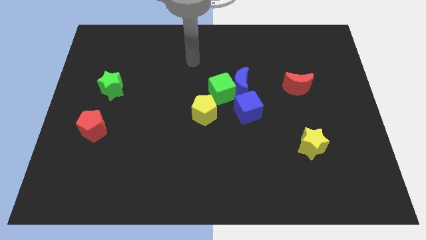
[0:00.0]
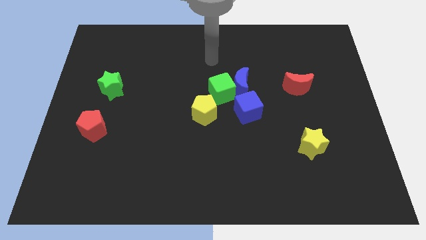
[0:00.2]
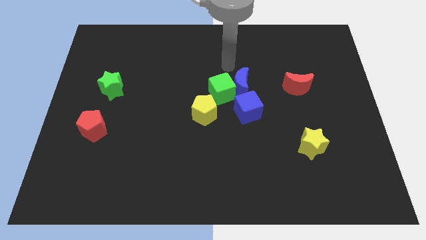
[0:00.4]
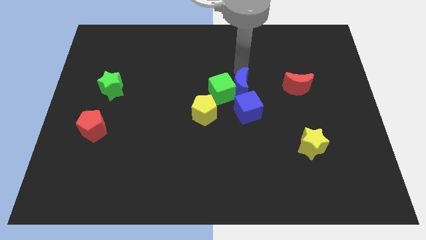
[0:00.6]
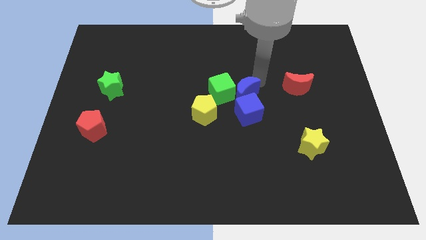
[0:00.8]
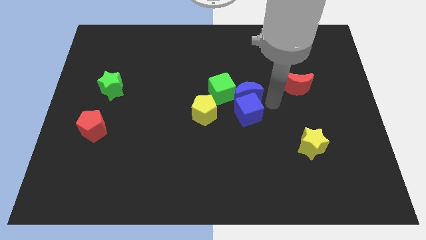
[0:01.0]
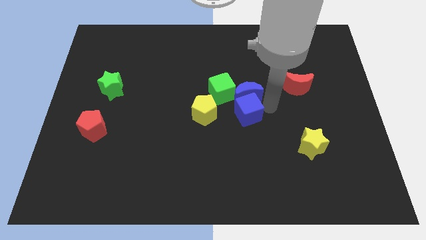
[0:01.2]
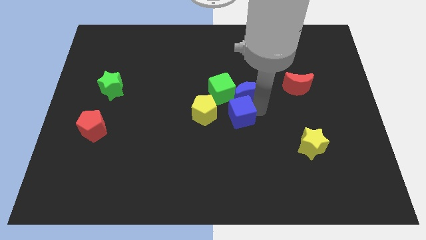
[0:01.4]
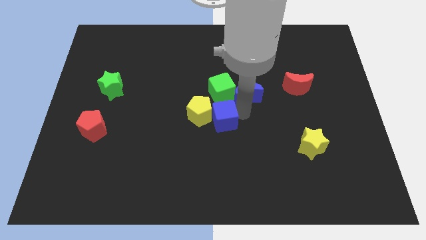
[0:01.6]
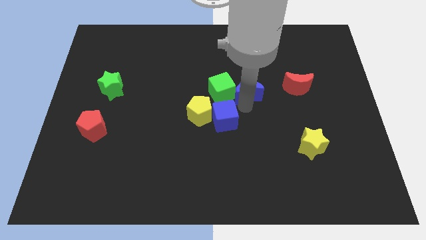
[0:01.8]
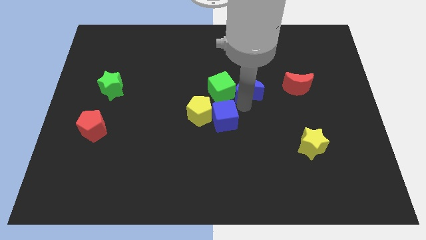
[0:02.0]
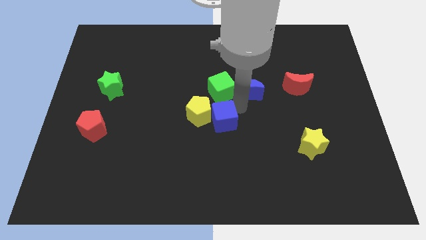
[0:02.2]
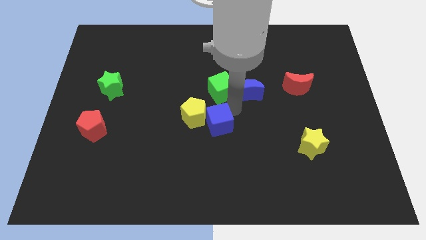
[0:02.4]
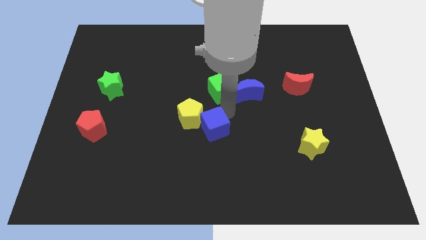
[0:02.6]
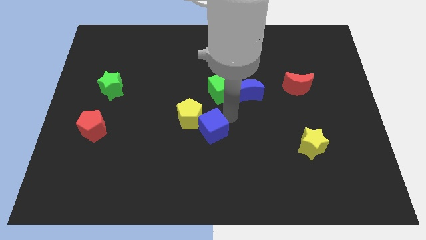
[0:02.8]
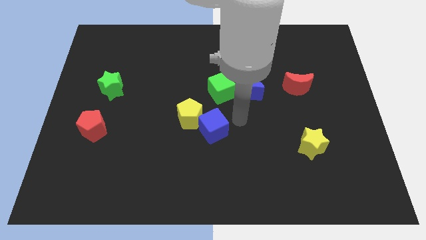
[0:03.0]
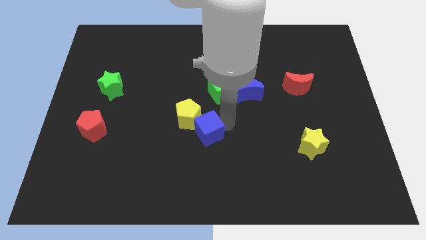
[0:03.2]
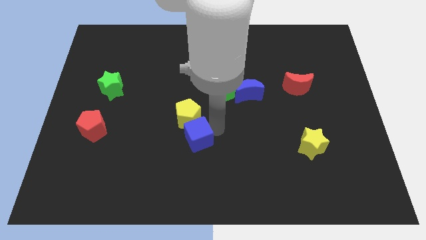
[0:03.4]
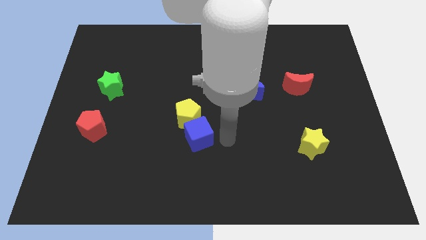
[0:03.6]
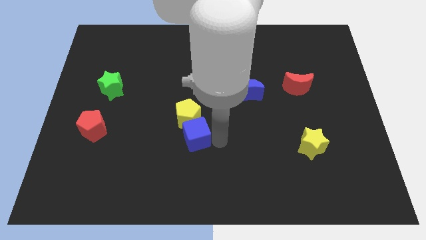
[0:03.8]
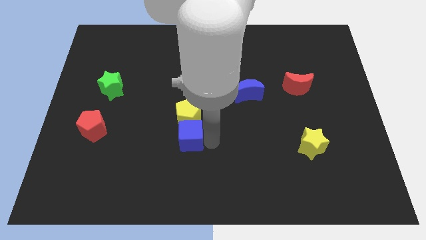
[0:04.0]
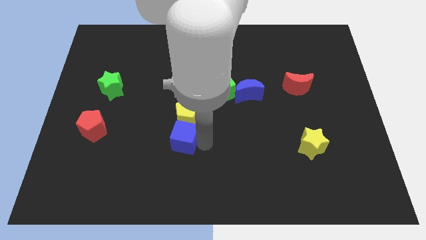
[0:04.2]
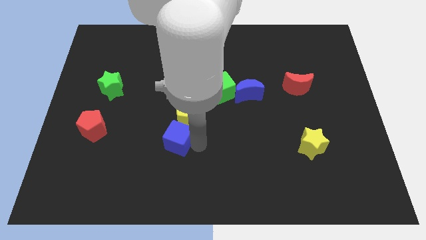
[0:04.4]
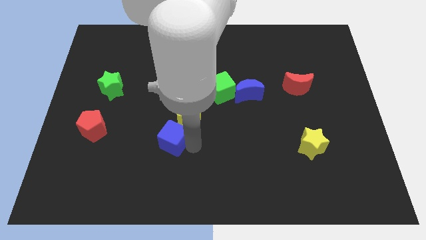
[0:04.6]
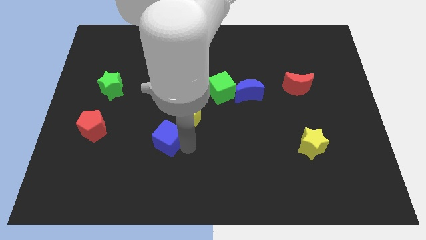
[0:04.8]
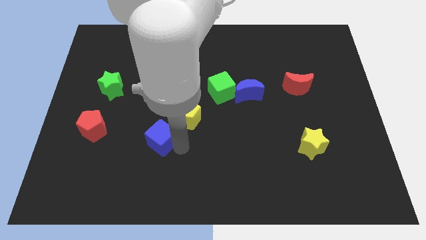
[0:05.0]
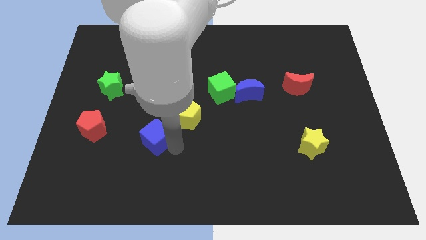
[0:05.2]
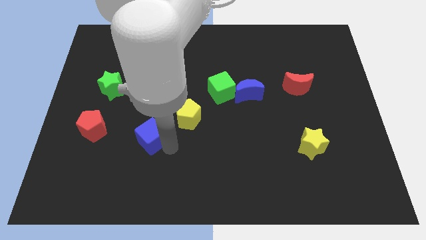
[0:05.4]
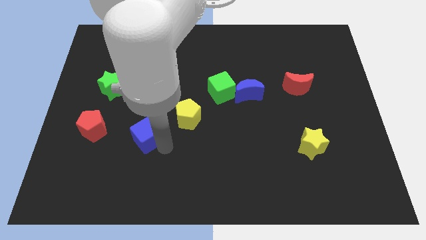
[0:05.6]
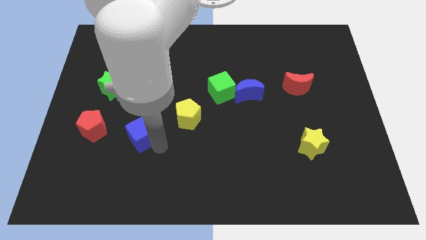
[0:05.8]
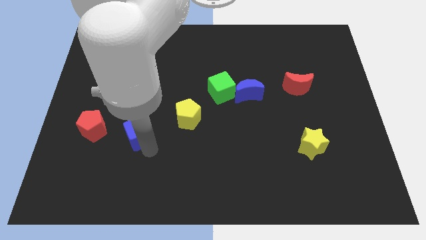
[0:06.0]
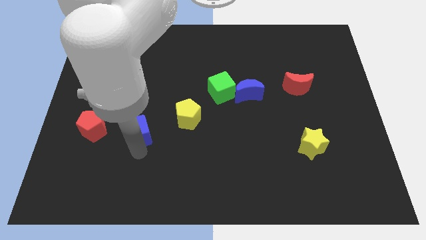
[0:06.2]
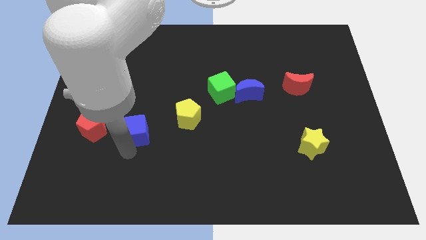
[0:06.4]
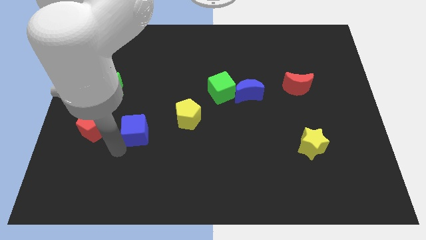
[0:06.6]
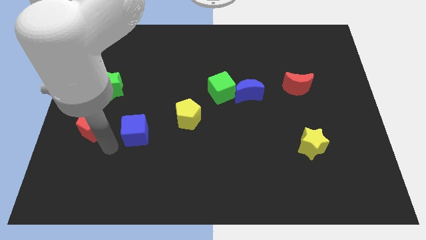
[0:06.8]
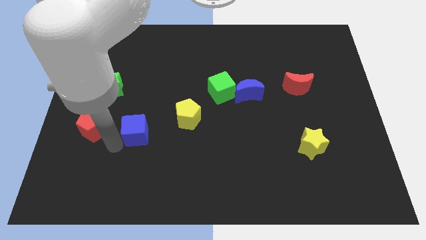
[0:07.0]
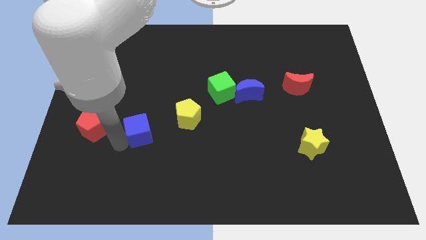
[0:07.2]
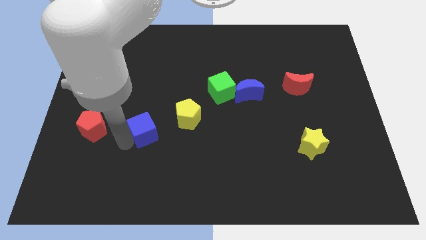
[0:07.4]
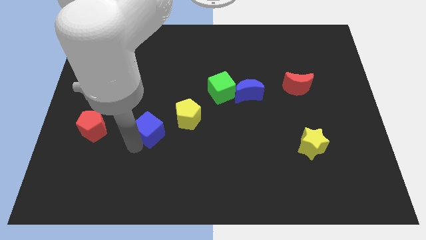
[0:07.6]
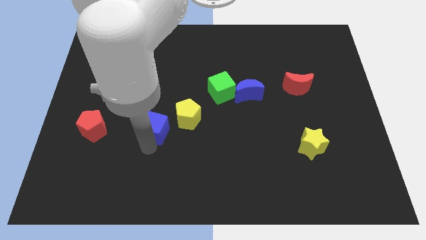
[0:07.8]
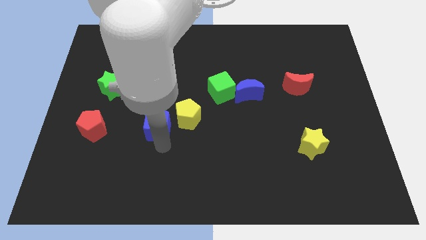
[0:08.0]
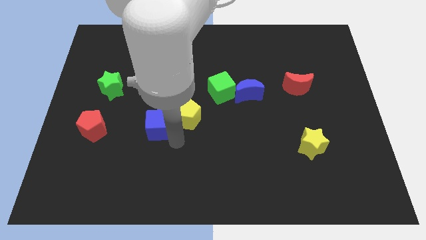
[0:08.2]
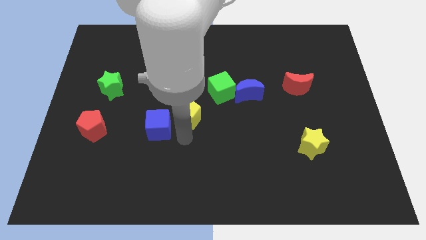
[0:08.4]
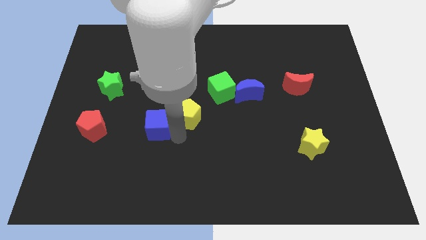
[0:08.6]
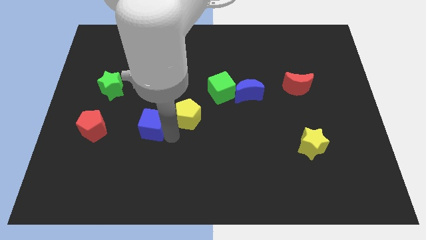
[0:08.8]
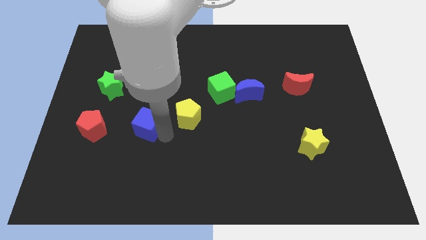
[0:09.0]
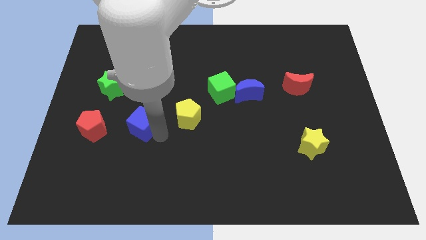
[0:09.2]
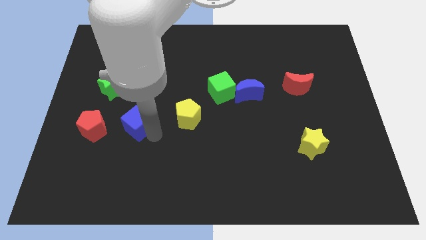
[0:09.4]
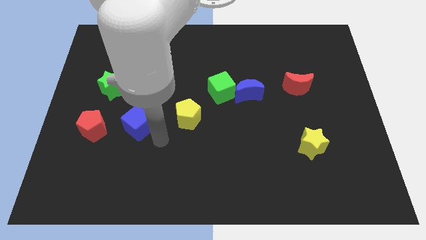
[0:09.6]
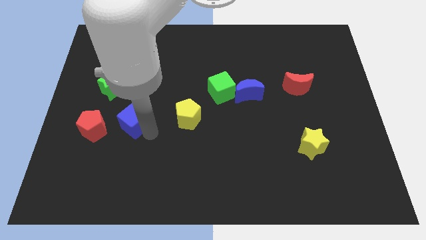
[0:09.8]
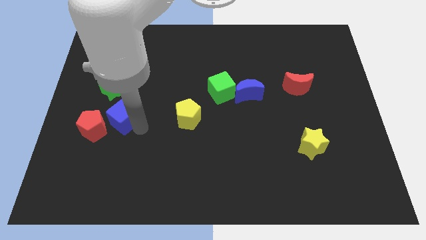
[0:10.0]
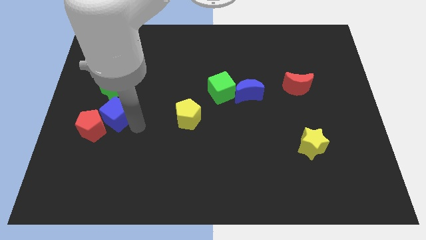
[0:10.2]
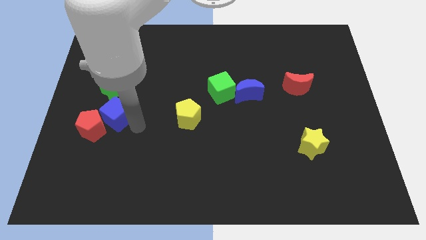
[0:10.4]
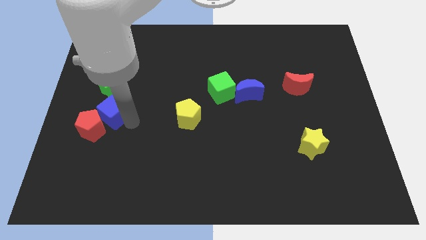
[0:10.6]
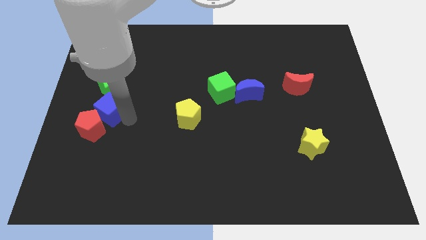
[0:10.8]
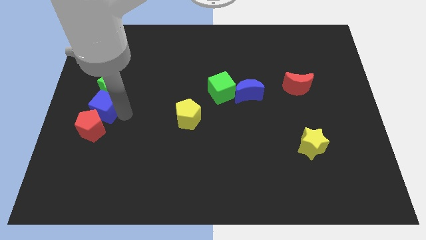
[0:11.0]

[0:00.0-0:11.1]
put the blue cube to the left side

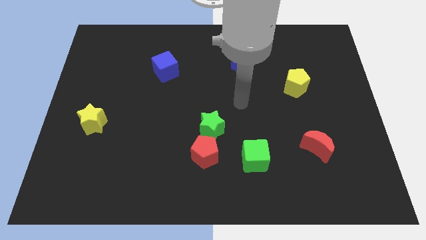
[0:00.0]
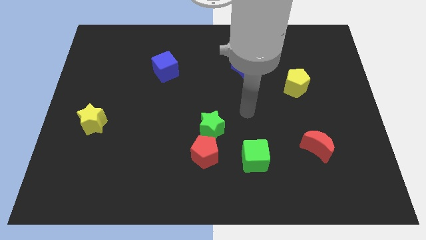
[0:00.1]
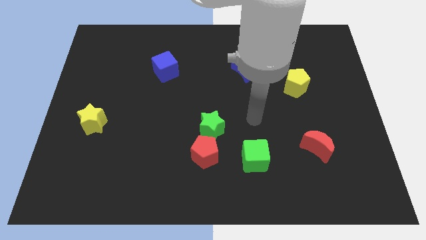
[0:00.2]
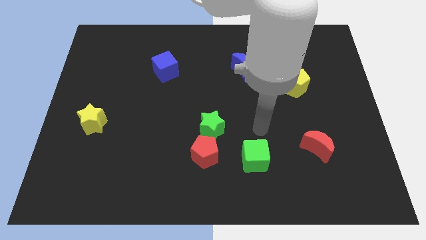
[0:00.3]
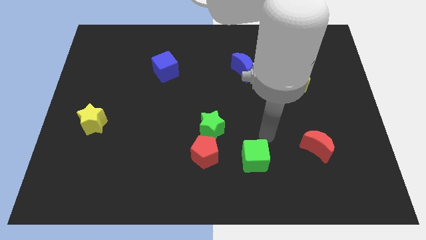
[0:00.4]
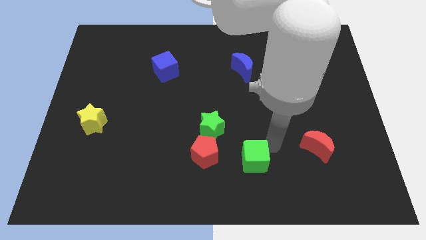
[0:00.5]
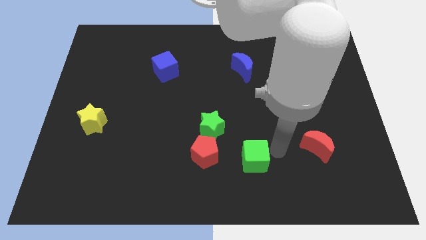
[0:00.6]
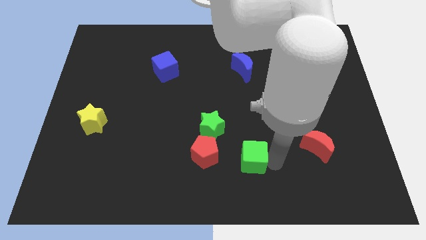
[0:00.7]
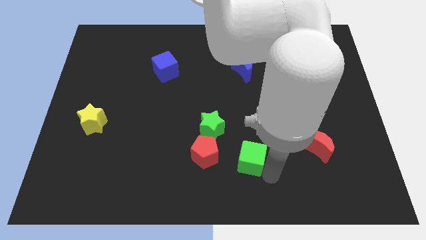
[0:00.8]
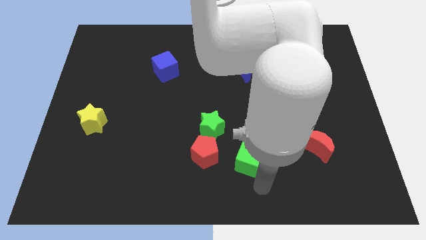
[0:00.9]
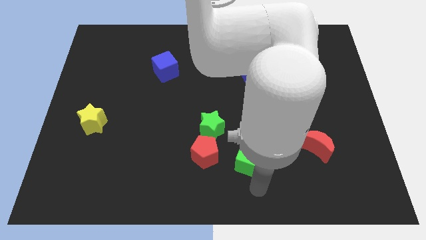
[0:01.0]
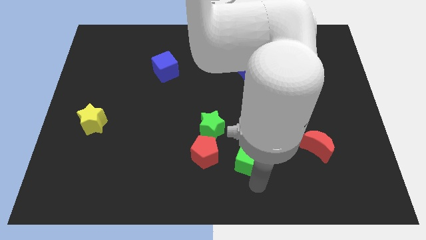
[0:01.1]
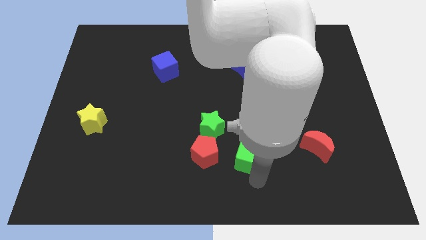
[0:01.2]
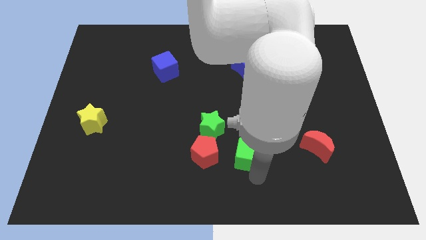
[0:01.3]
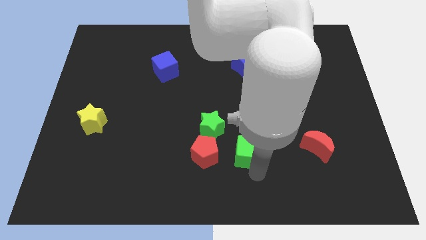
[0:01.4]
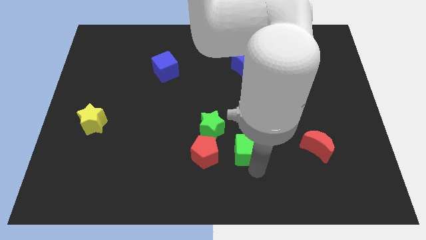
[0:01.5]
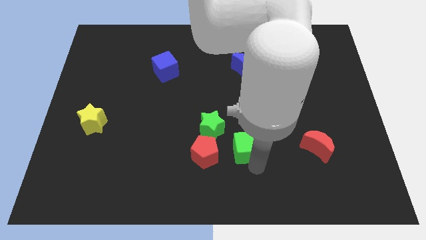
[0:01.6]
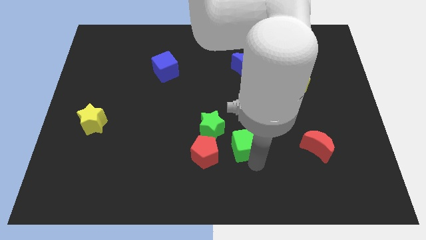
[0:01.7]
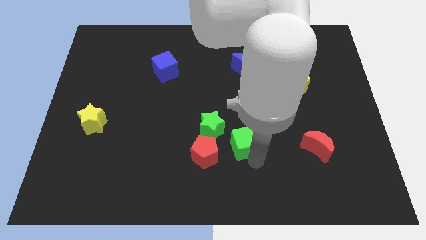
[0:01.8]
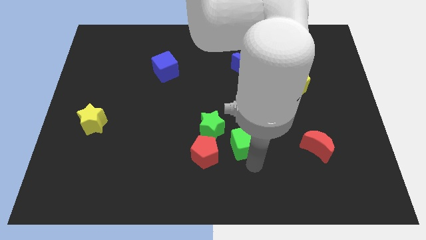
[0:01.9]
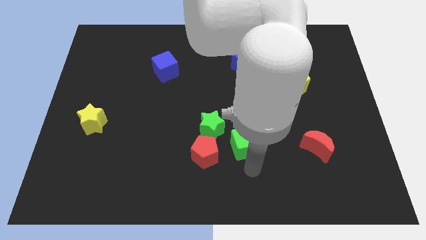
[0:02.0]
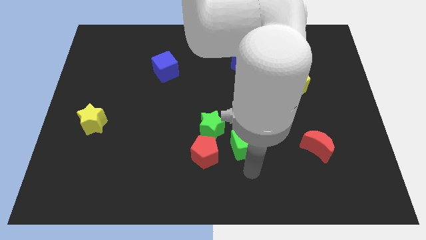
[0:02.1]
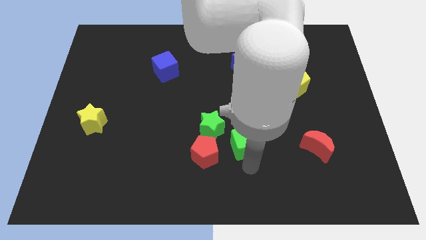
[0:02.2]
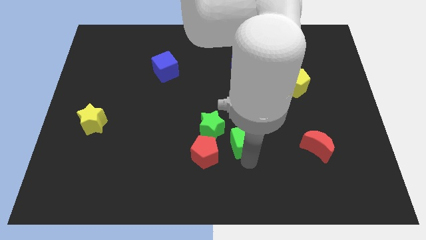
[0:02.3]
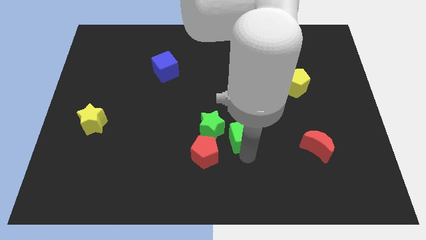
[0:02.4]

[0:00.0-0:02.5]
move the green cube to the middle
